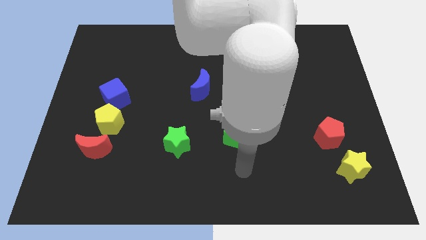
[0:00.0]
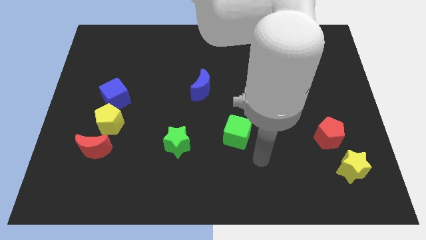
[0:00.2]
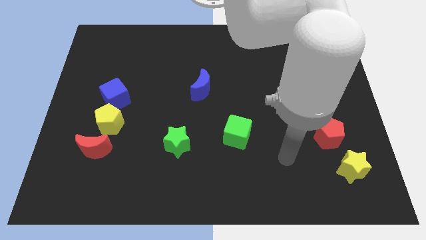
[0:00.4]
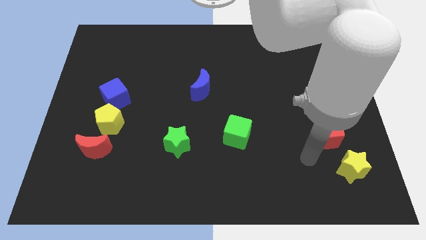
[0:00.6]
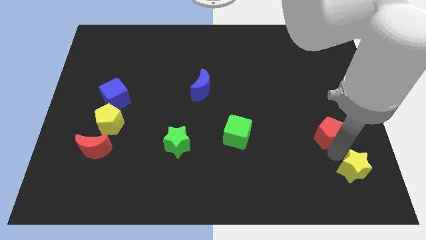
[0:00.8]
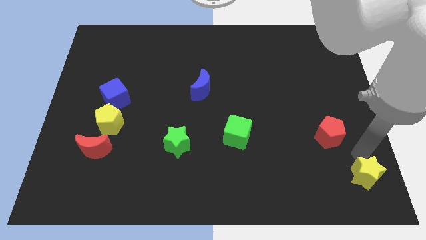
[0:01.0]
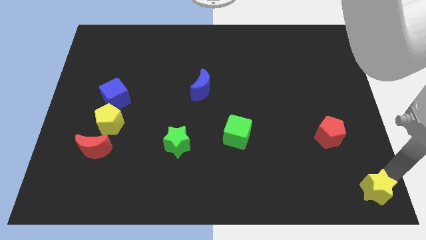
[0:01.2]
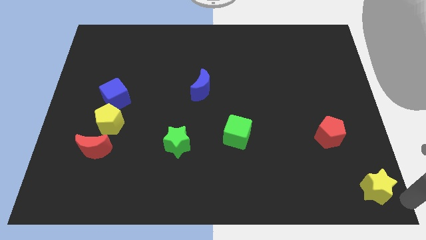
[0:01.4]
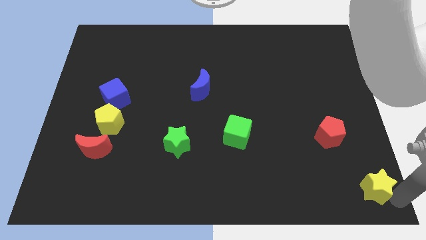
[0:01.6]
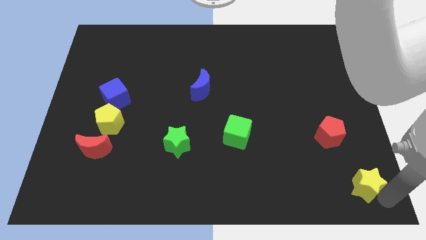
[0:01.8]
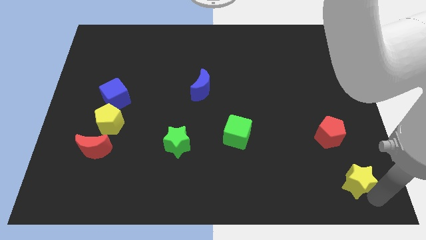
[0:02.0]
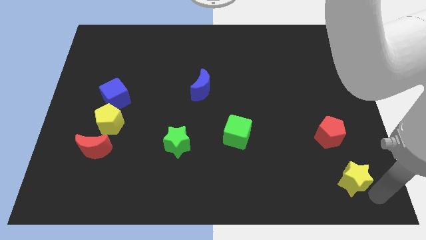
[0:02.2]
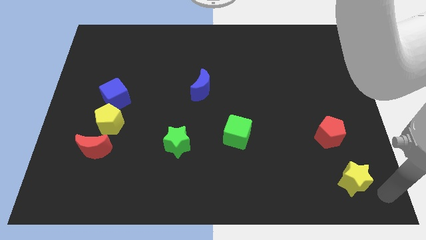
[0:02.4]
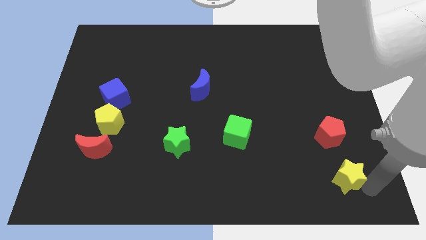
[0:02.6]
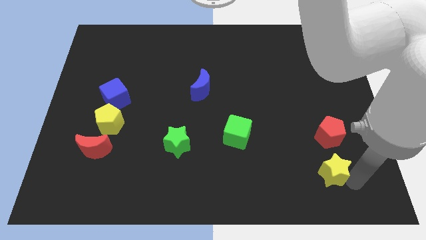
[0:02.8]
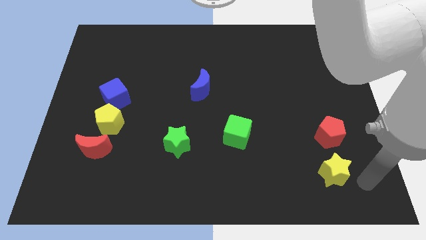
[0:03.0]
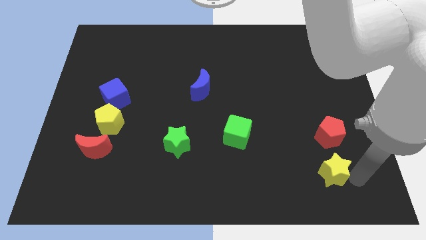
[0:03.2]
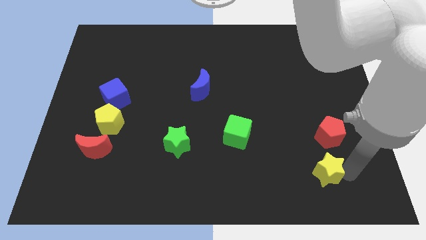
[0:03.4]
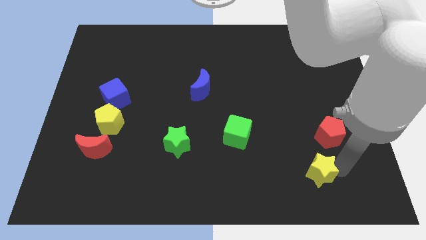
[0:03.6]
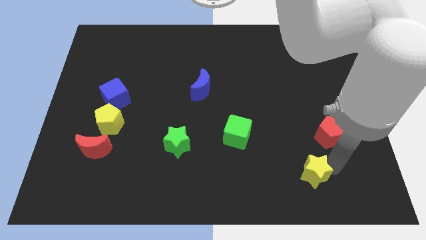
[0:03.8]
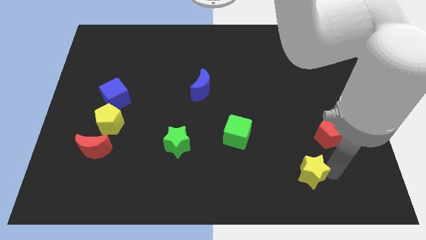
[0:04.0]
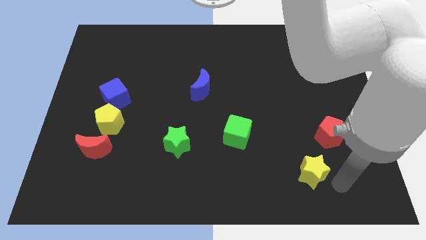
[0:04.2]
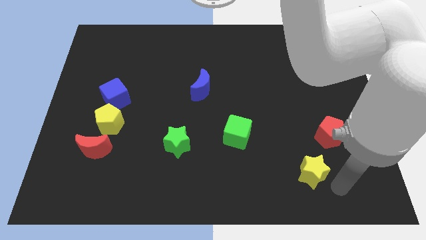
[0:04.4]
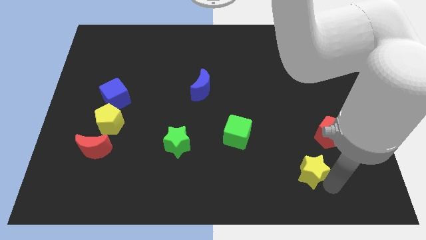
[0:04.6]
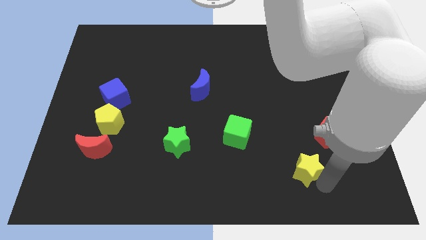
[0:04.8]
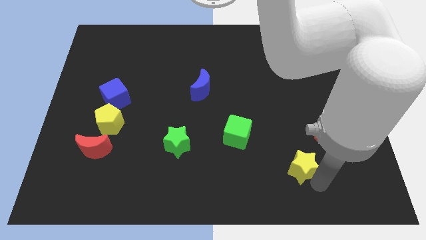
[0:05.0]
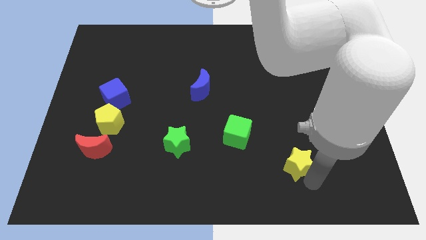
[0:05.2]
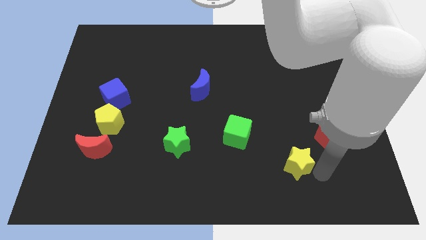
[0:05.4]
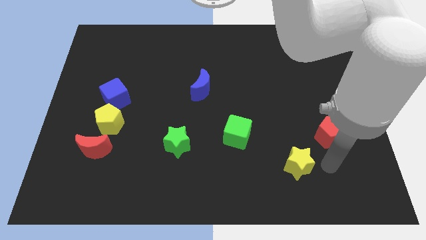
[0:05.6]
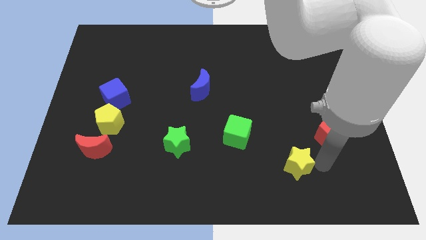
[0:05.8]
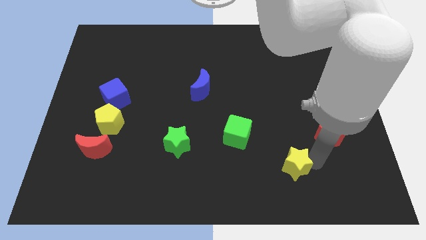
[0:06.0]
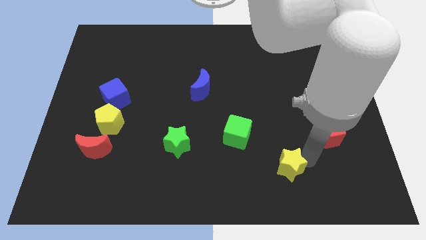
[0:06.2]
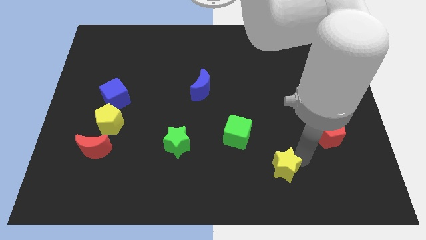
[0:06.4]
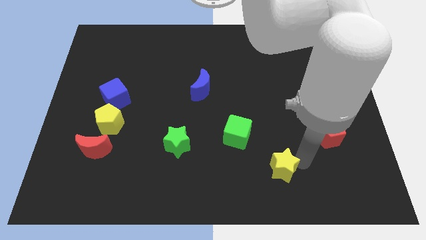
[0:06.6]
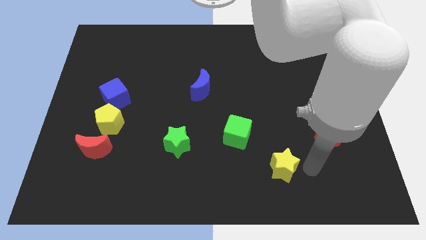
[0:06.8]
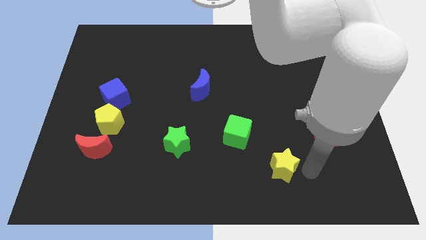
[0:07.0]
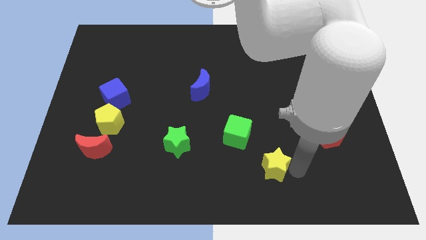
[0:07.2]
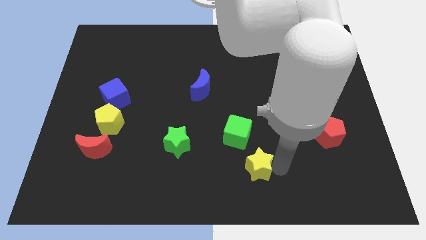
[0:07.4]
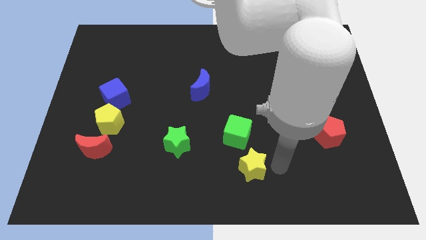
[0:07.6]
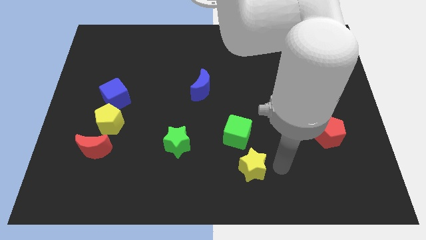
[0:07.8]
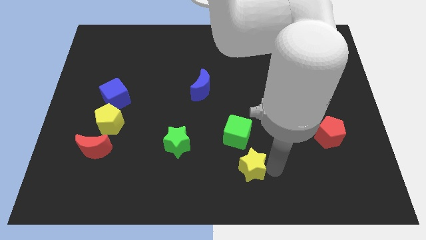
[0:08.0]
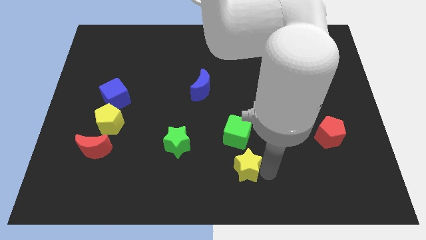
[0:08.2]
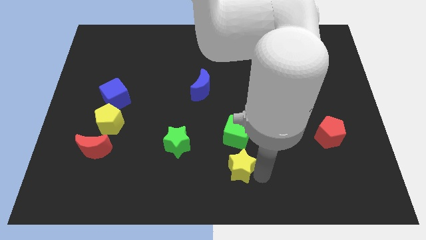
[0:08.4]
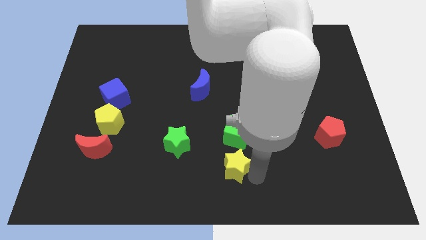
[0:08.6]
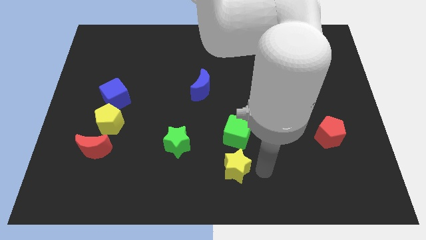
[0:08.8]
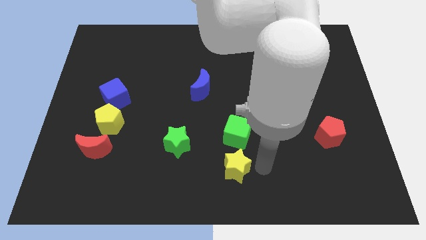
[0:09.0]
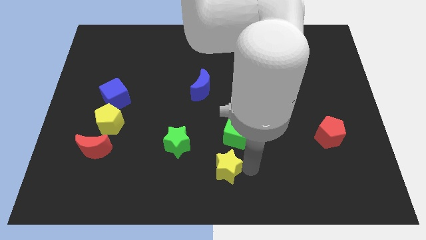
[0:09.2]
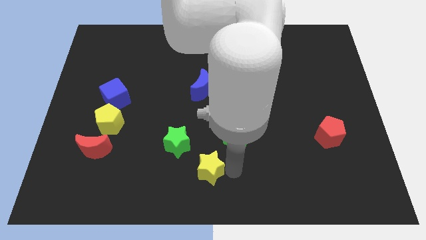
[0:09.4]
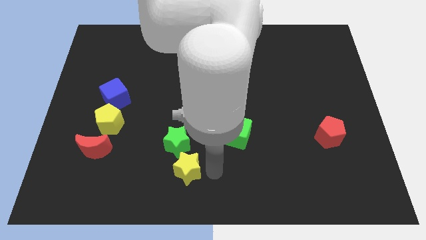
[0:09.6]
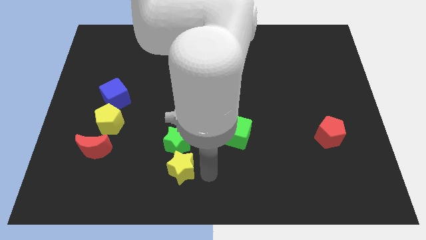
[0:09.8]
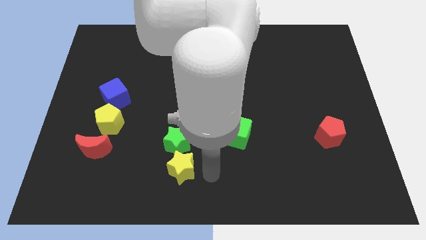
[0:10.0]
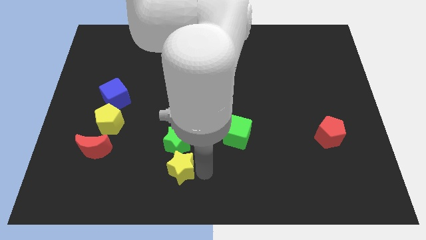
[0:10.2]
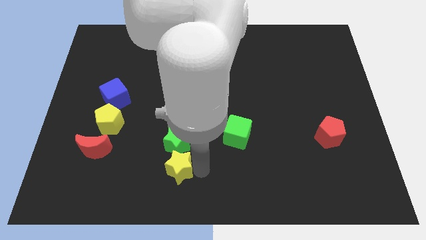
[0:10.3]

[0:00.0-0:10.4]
move the yellow star to the bottom left side of the green star

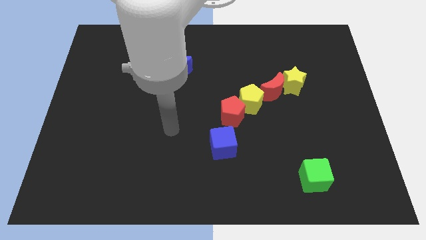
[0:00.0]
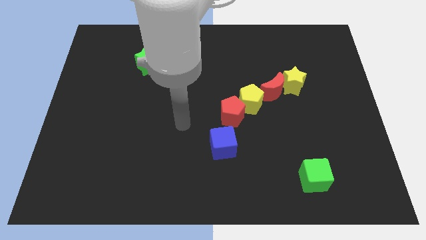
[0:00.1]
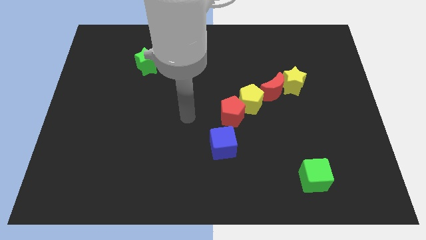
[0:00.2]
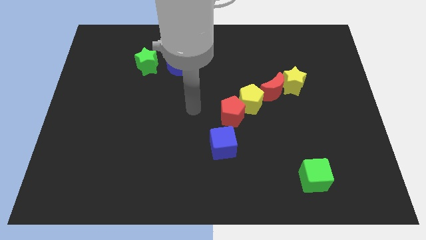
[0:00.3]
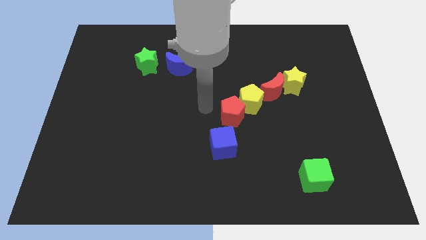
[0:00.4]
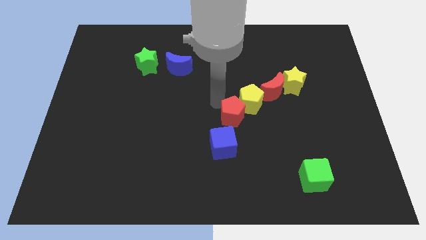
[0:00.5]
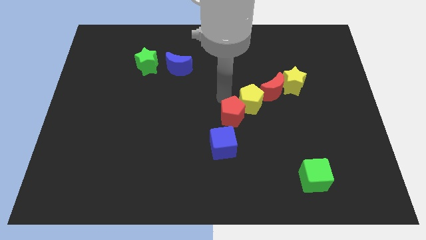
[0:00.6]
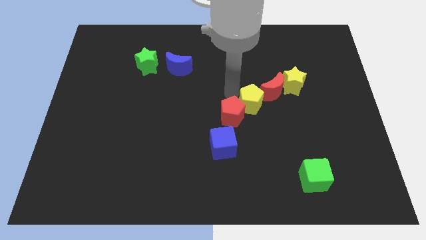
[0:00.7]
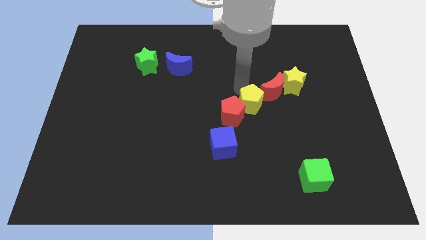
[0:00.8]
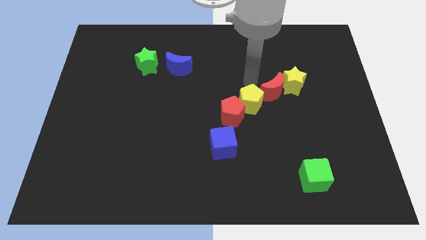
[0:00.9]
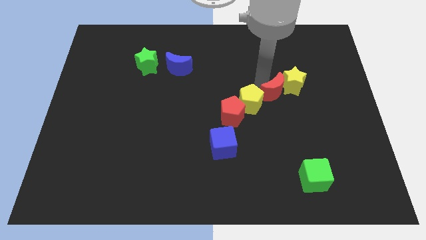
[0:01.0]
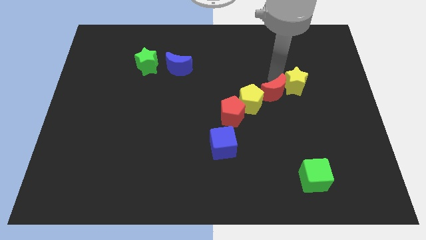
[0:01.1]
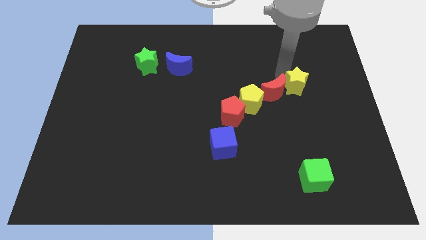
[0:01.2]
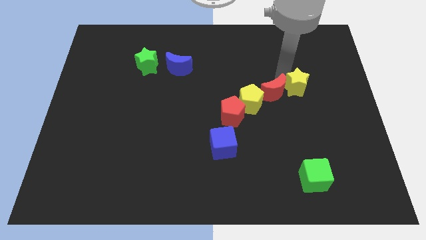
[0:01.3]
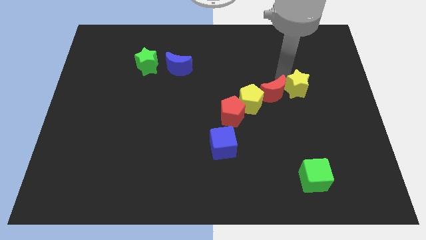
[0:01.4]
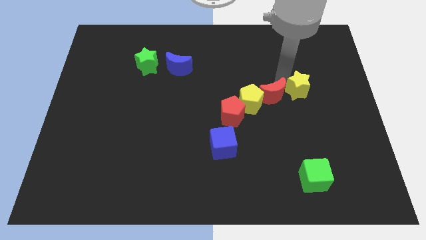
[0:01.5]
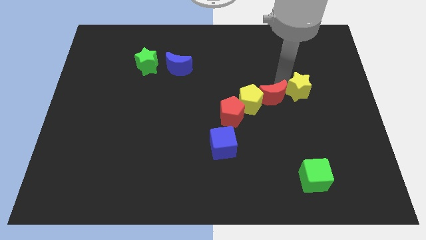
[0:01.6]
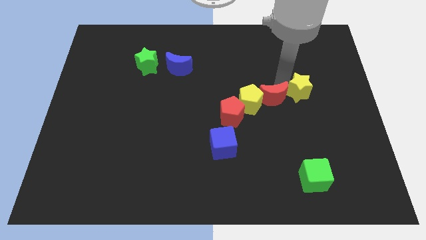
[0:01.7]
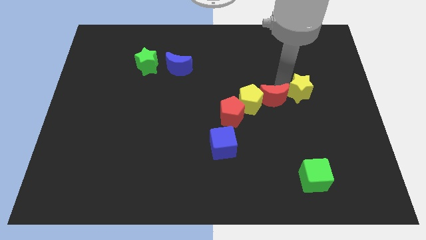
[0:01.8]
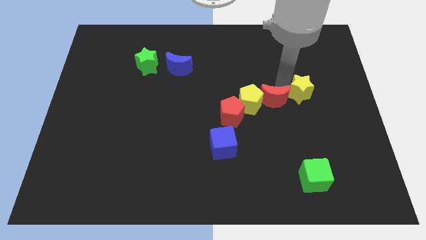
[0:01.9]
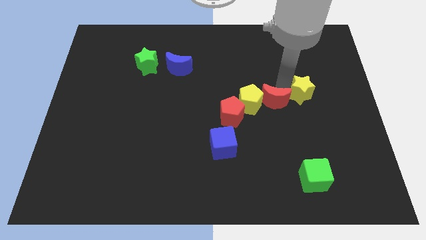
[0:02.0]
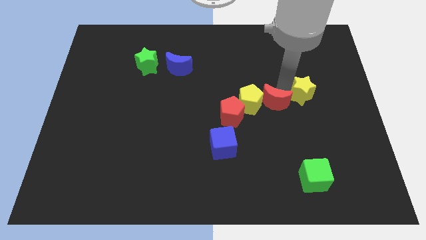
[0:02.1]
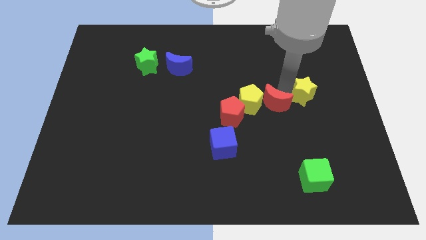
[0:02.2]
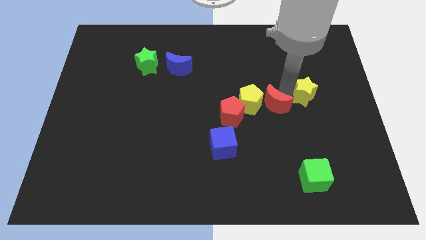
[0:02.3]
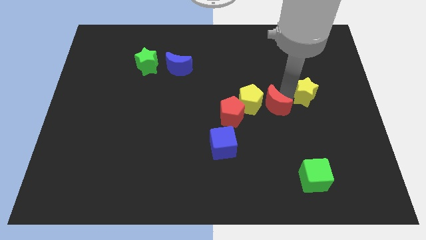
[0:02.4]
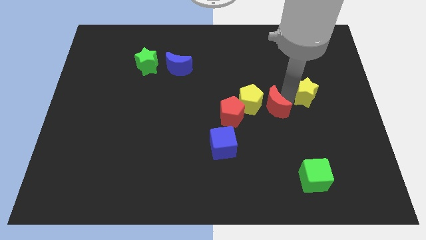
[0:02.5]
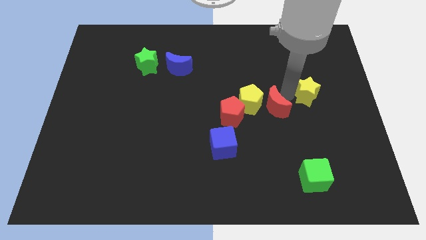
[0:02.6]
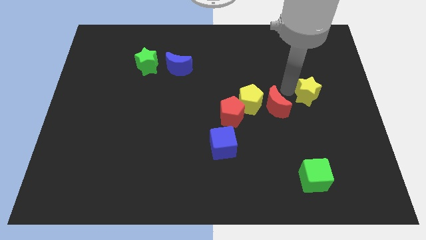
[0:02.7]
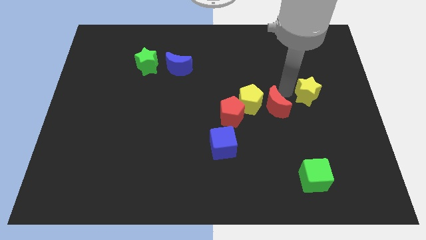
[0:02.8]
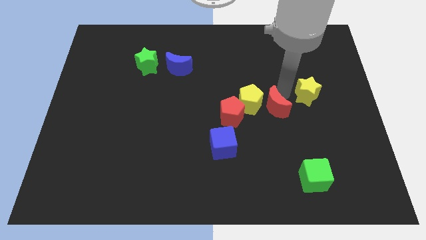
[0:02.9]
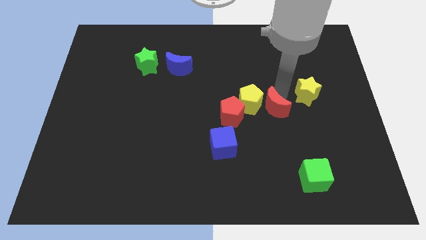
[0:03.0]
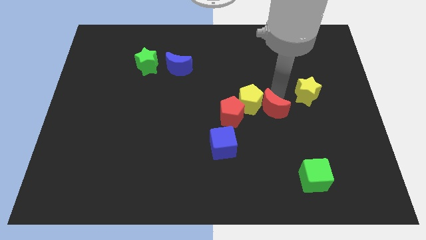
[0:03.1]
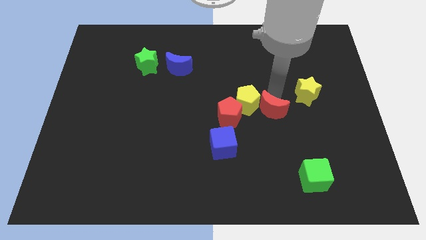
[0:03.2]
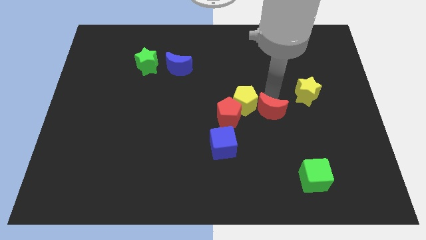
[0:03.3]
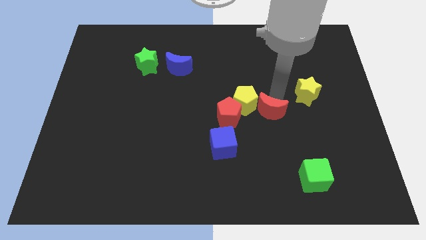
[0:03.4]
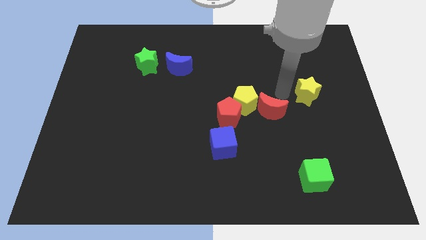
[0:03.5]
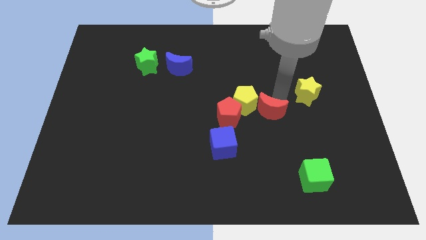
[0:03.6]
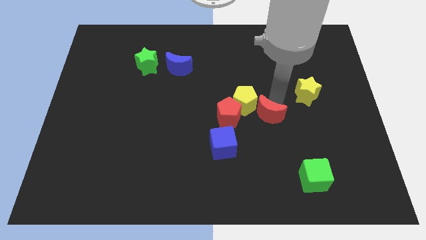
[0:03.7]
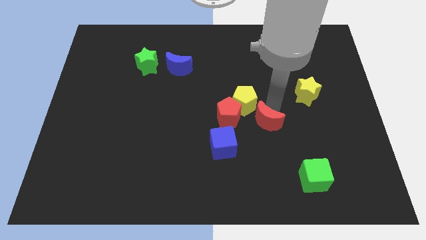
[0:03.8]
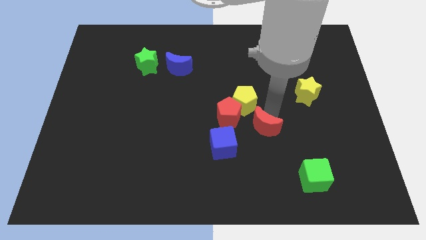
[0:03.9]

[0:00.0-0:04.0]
put the red moon diagonally down and to the right of the red pentagon
